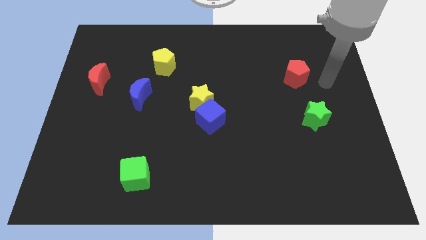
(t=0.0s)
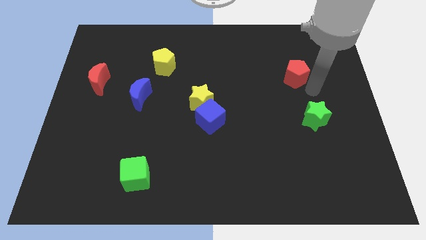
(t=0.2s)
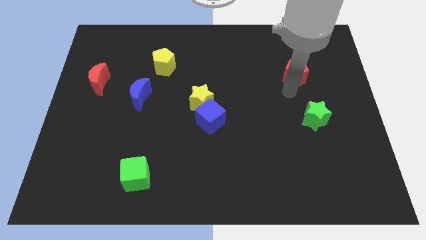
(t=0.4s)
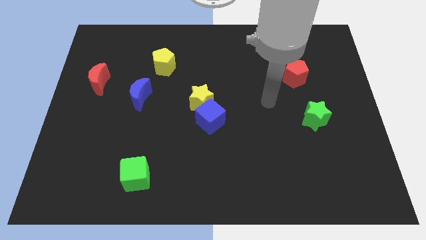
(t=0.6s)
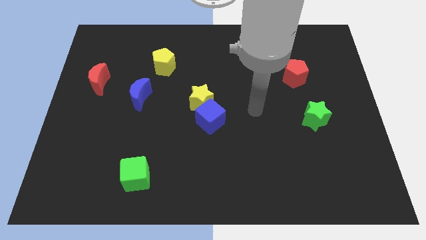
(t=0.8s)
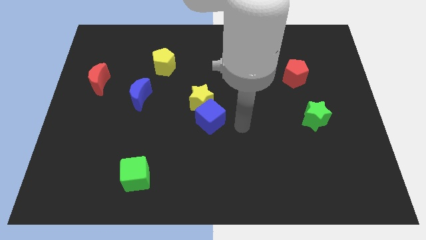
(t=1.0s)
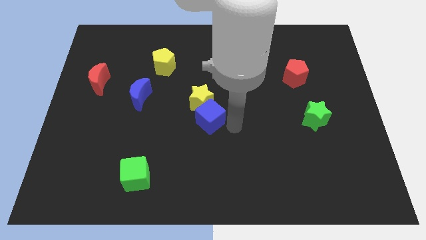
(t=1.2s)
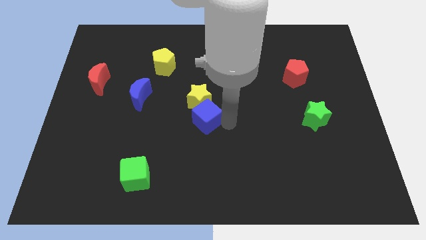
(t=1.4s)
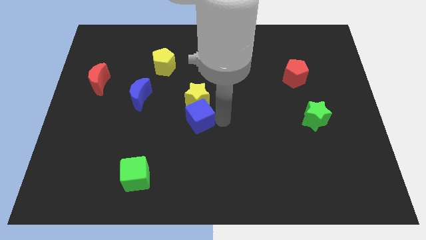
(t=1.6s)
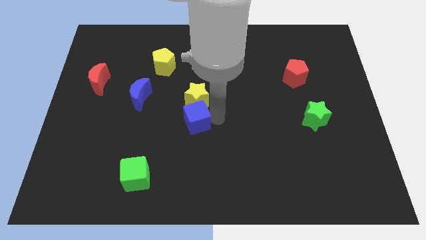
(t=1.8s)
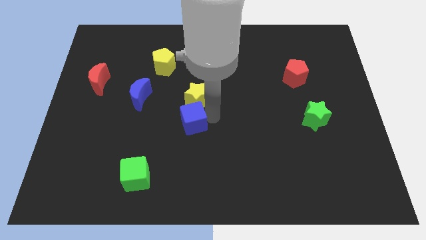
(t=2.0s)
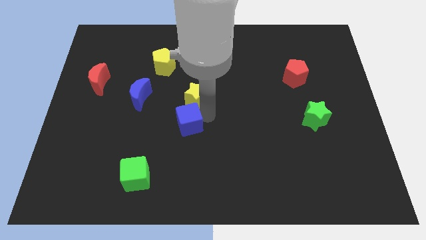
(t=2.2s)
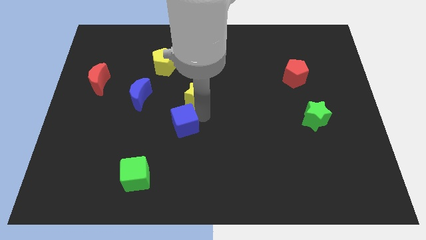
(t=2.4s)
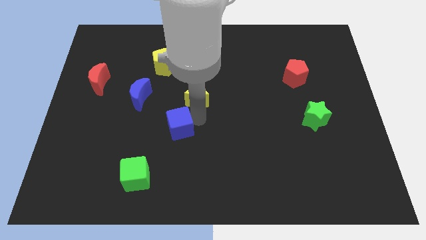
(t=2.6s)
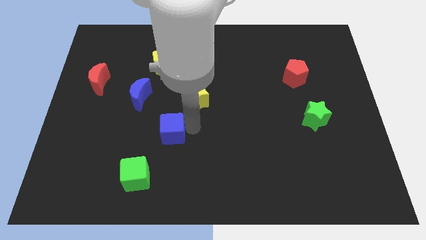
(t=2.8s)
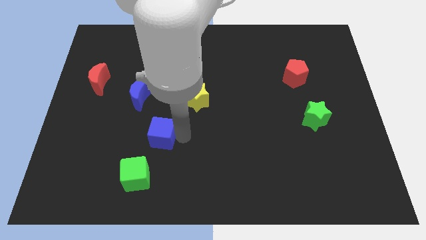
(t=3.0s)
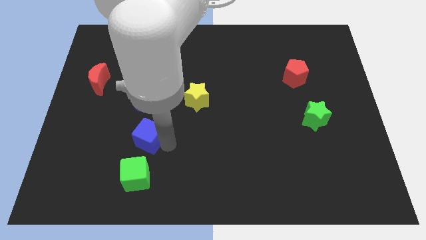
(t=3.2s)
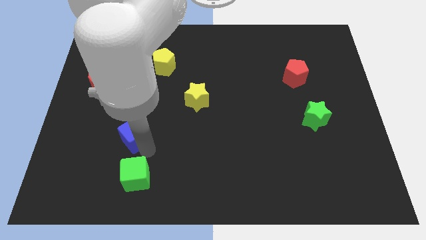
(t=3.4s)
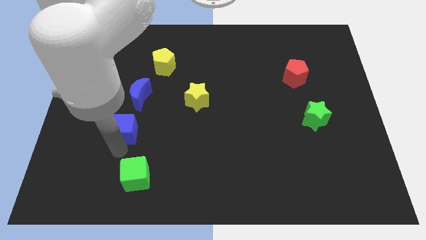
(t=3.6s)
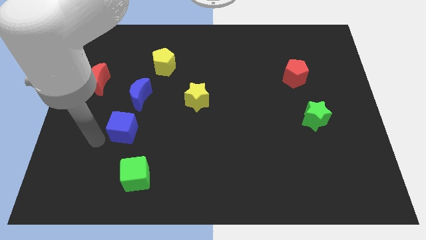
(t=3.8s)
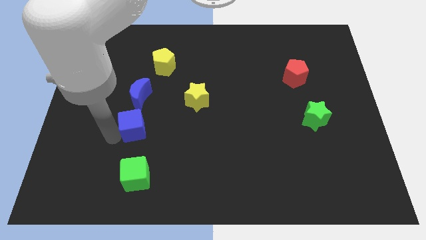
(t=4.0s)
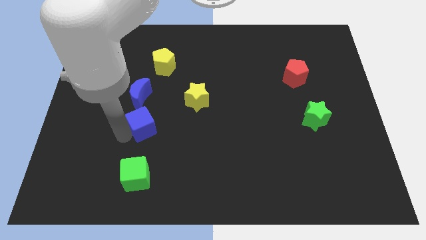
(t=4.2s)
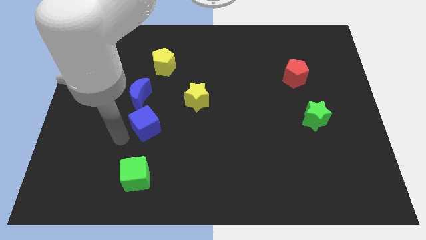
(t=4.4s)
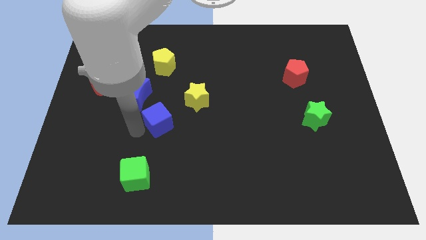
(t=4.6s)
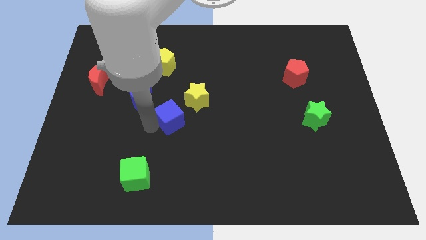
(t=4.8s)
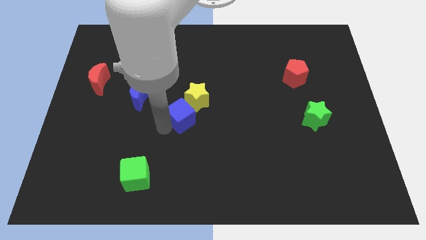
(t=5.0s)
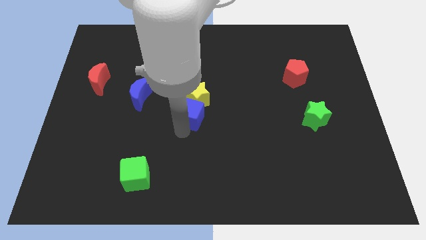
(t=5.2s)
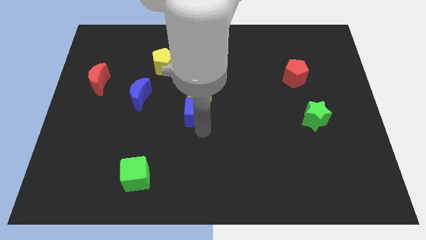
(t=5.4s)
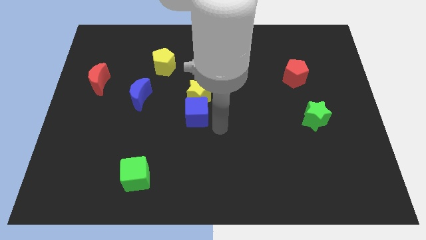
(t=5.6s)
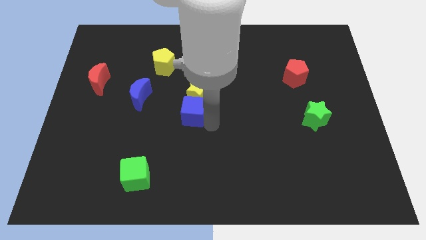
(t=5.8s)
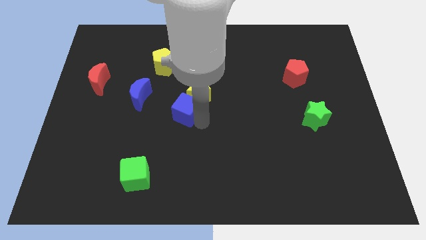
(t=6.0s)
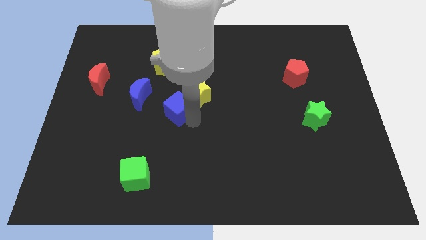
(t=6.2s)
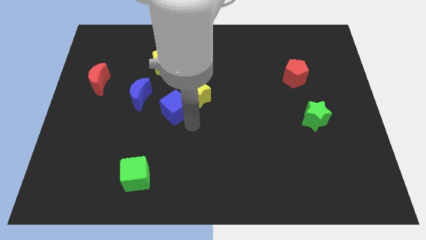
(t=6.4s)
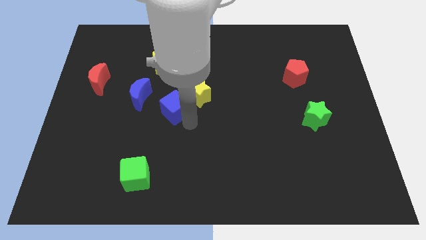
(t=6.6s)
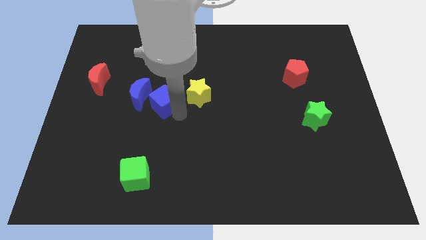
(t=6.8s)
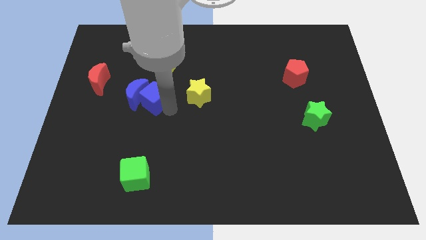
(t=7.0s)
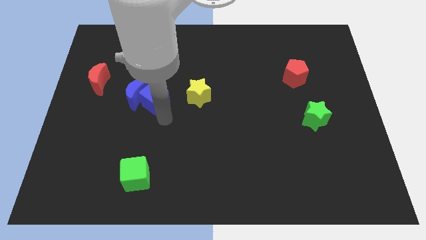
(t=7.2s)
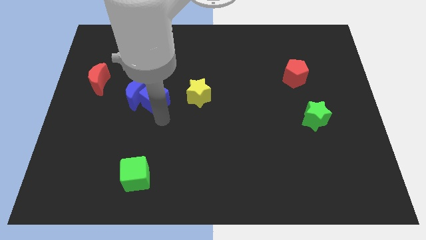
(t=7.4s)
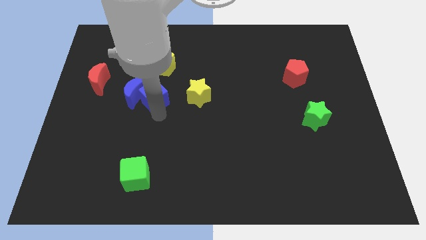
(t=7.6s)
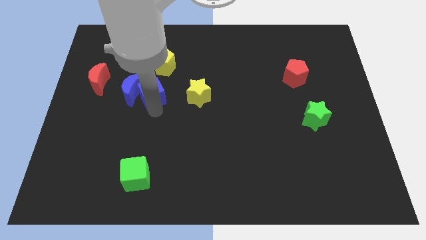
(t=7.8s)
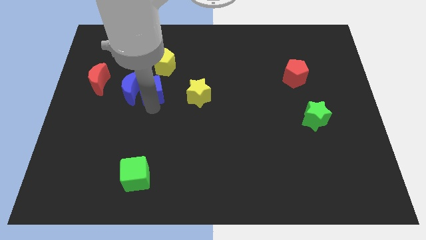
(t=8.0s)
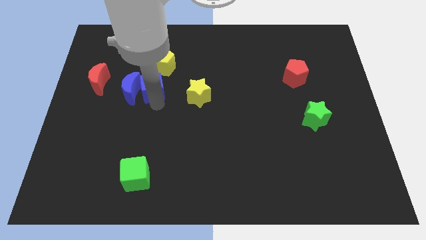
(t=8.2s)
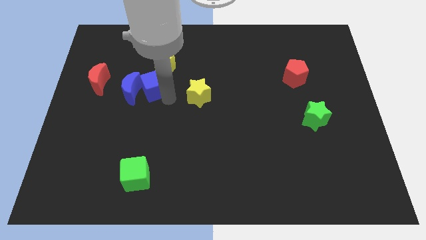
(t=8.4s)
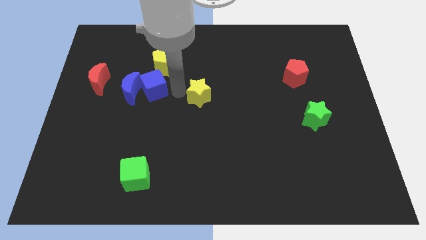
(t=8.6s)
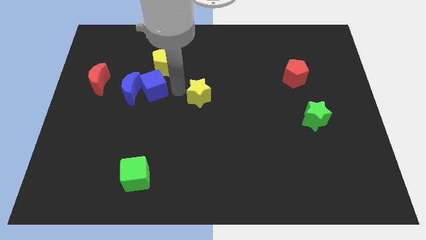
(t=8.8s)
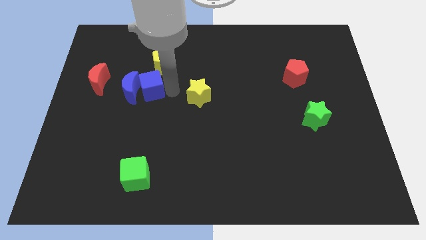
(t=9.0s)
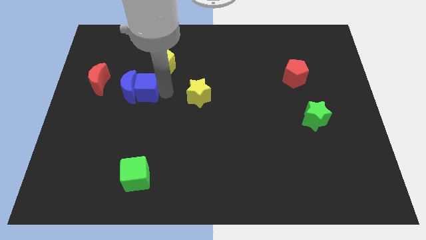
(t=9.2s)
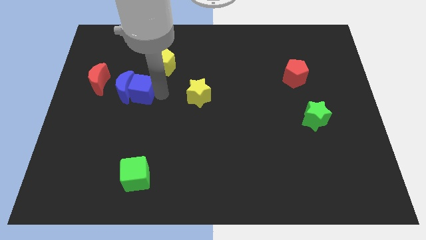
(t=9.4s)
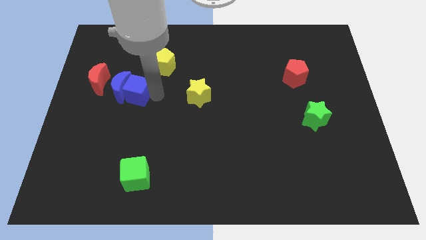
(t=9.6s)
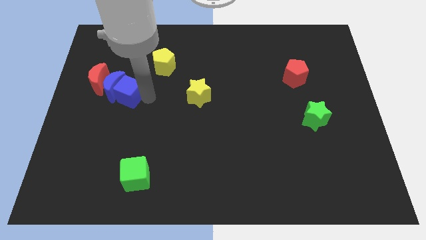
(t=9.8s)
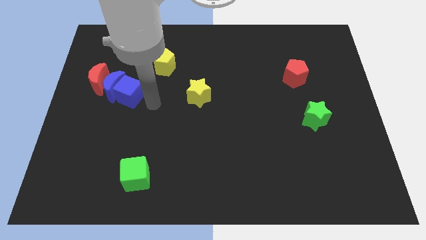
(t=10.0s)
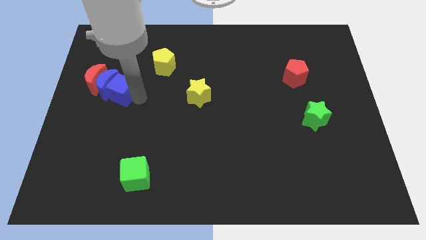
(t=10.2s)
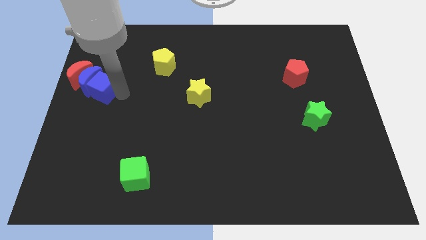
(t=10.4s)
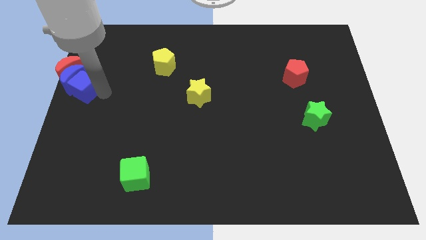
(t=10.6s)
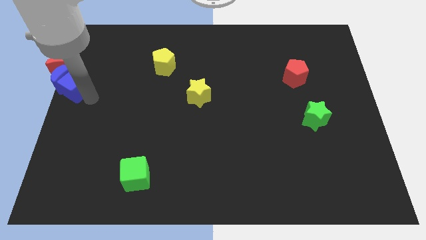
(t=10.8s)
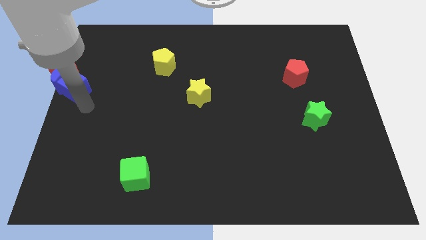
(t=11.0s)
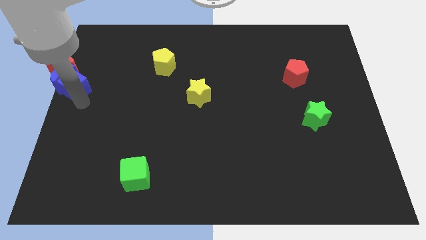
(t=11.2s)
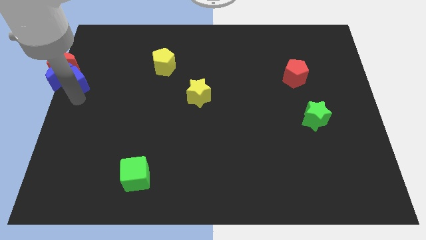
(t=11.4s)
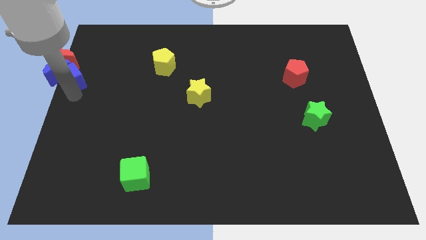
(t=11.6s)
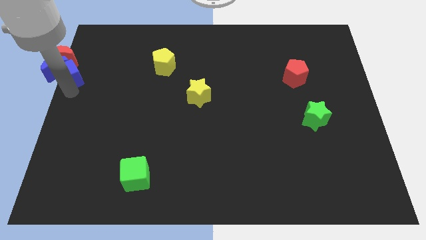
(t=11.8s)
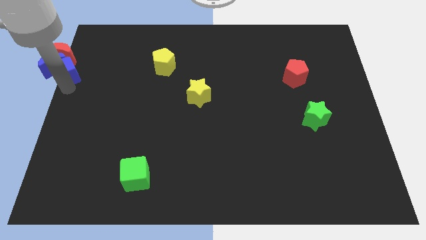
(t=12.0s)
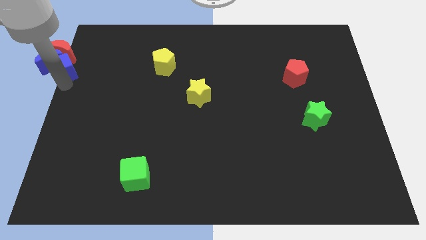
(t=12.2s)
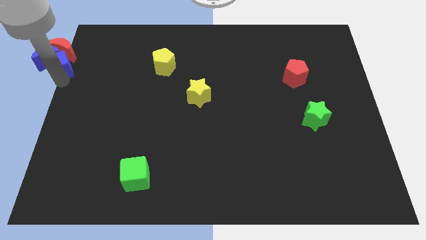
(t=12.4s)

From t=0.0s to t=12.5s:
put the blue cube towards the red moon

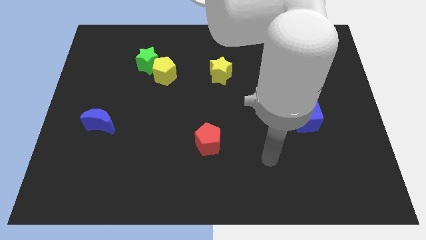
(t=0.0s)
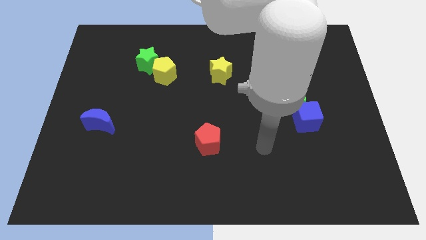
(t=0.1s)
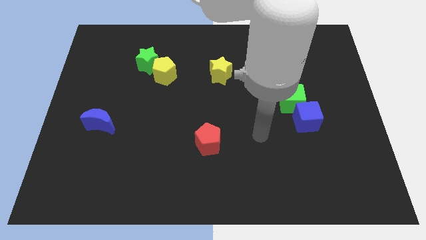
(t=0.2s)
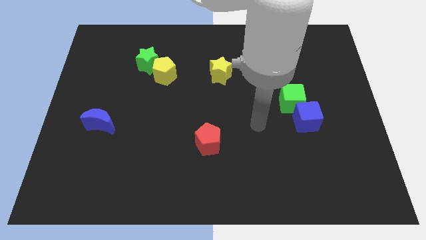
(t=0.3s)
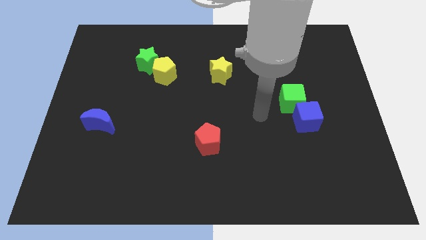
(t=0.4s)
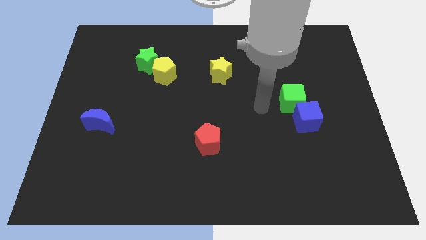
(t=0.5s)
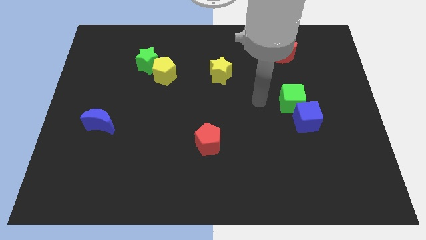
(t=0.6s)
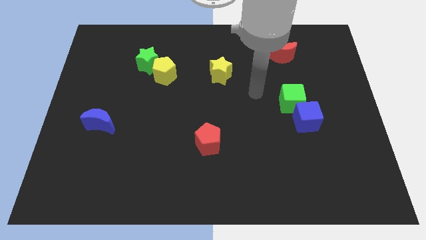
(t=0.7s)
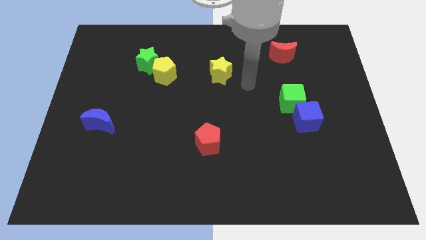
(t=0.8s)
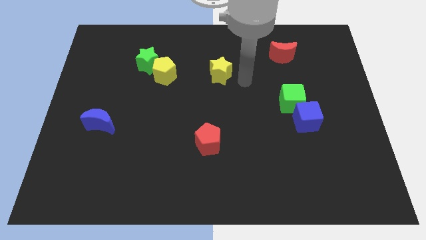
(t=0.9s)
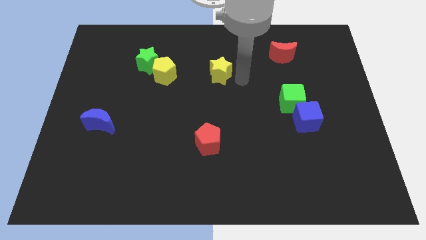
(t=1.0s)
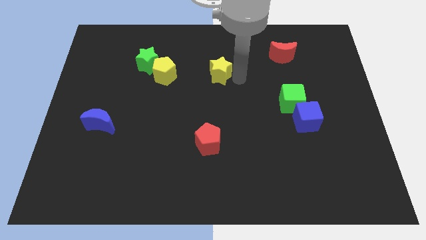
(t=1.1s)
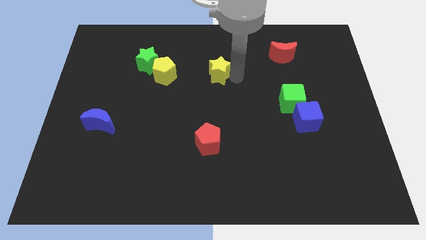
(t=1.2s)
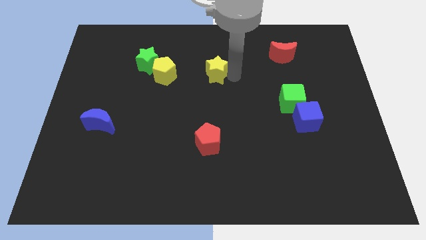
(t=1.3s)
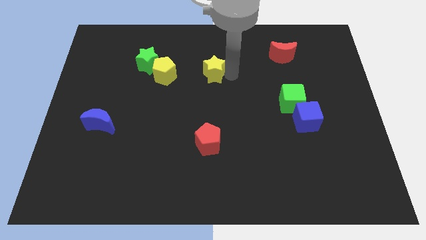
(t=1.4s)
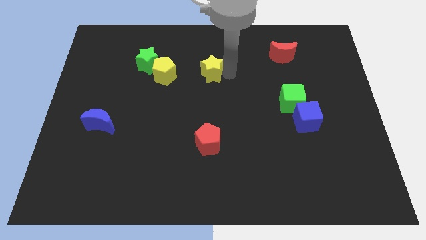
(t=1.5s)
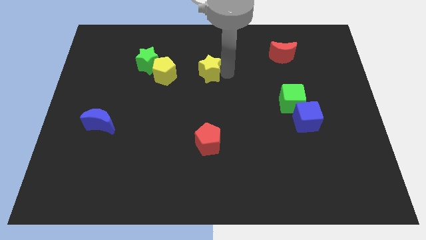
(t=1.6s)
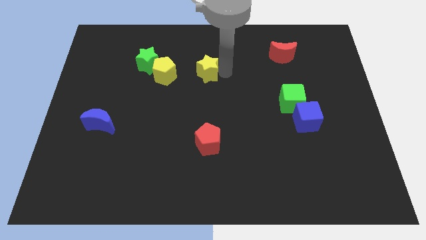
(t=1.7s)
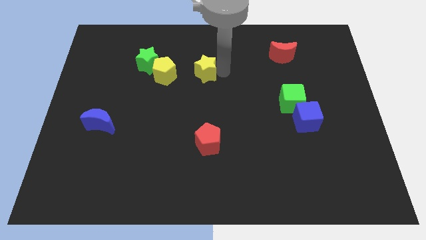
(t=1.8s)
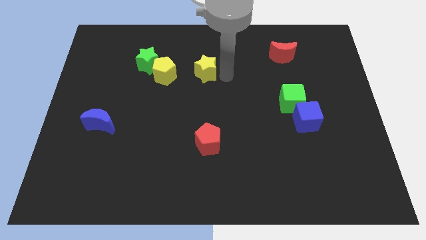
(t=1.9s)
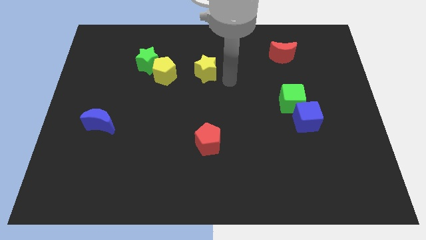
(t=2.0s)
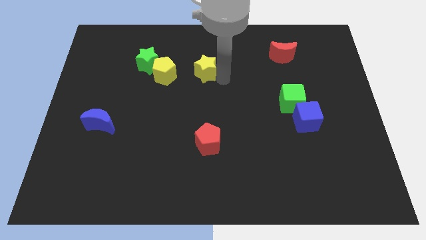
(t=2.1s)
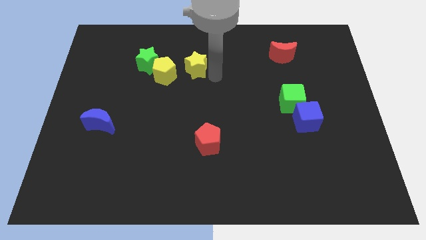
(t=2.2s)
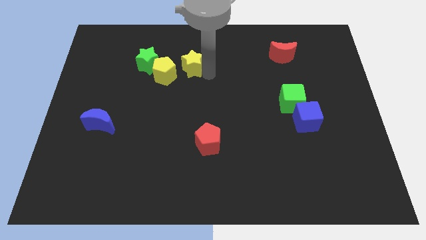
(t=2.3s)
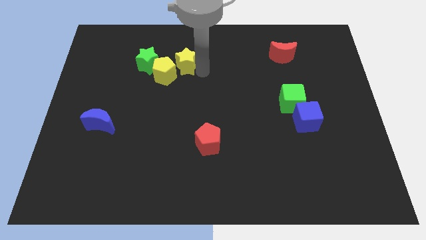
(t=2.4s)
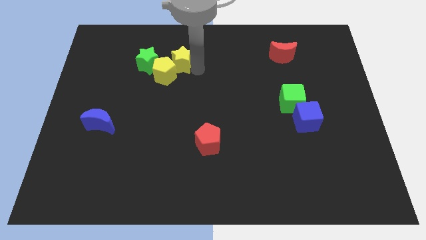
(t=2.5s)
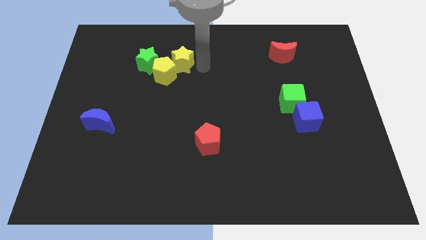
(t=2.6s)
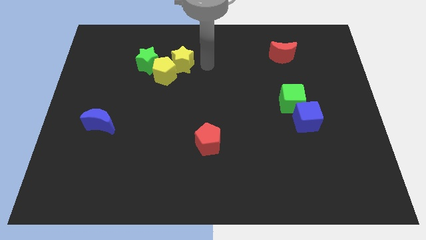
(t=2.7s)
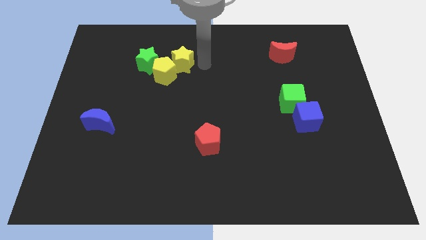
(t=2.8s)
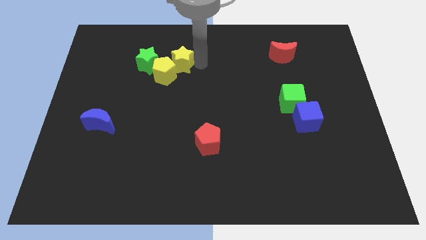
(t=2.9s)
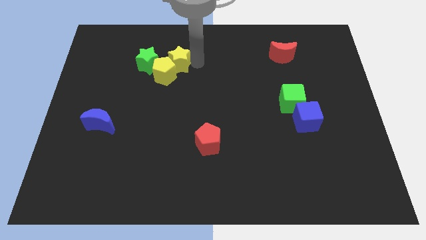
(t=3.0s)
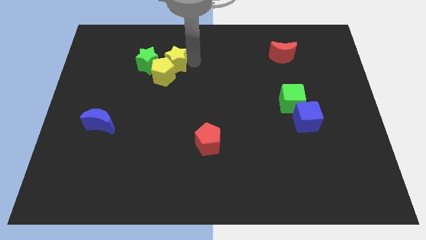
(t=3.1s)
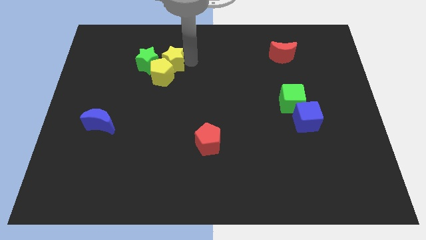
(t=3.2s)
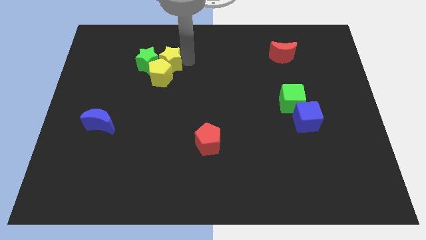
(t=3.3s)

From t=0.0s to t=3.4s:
put the yellow star next to the green star
